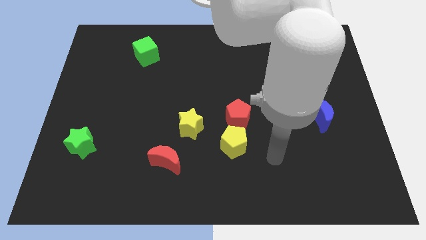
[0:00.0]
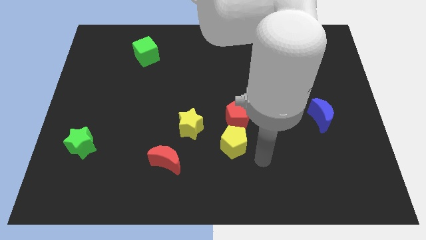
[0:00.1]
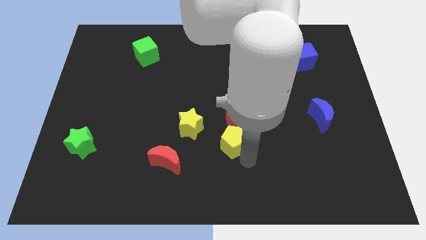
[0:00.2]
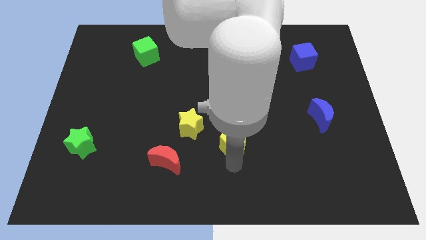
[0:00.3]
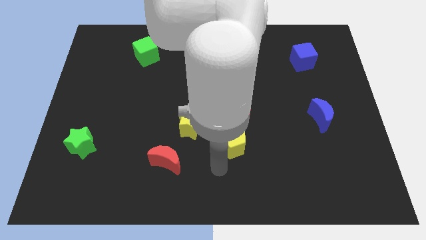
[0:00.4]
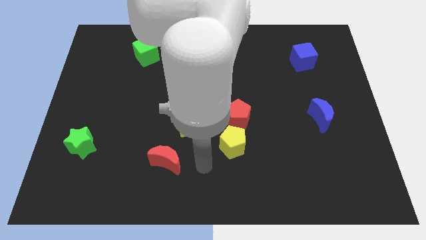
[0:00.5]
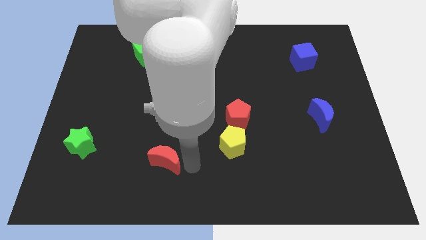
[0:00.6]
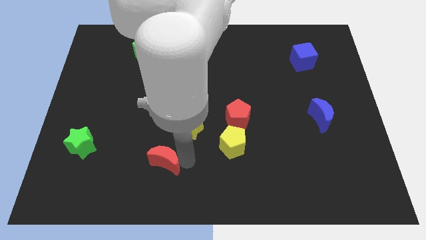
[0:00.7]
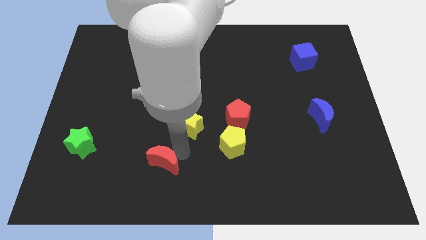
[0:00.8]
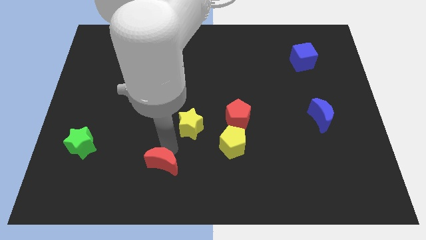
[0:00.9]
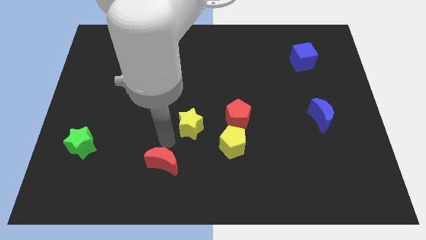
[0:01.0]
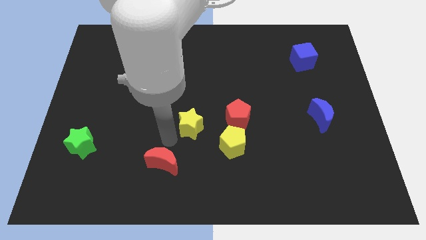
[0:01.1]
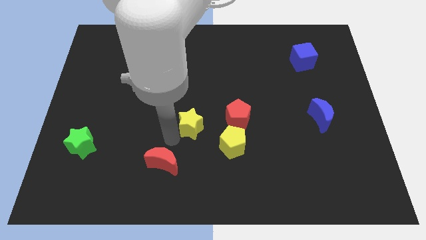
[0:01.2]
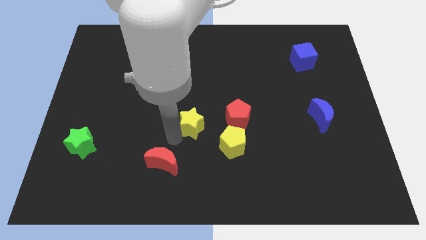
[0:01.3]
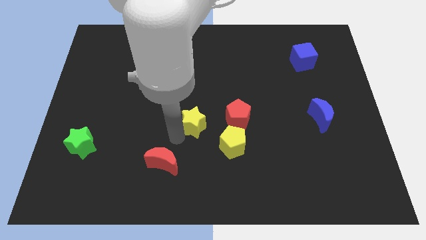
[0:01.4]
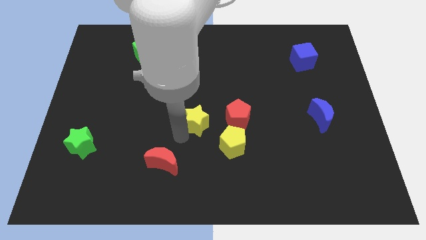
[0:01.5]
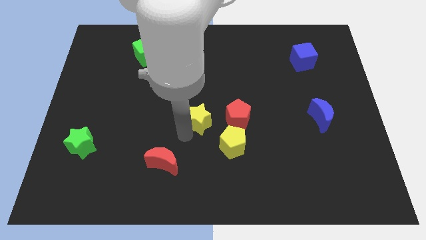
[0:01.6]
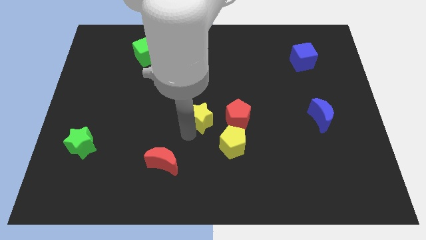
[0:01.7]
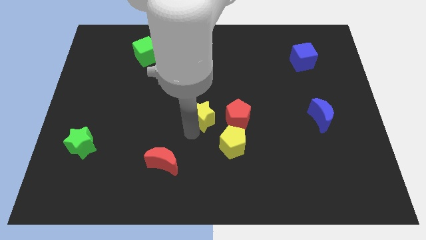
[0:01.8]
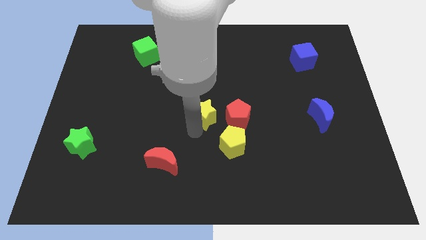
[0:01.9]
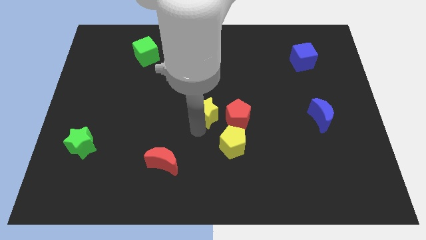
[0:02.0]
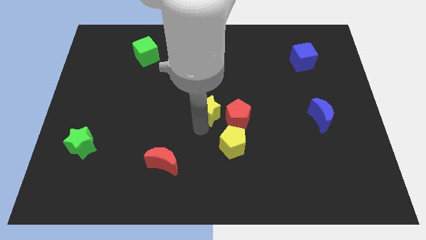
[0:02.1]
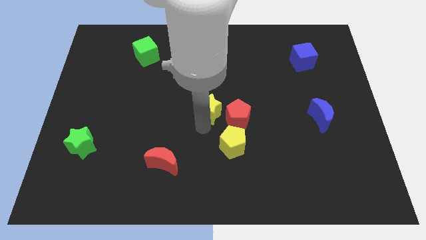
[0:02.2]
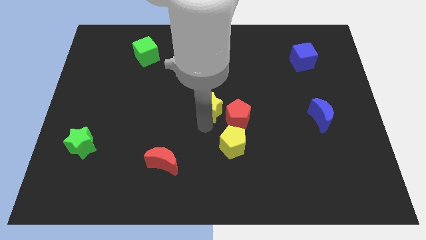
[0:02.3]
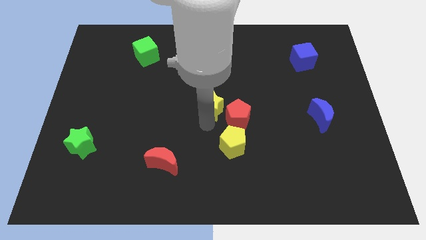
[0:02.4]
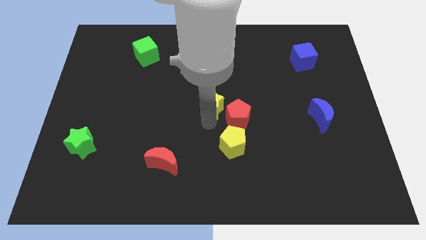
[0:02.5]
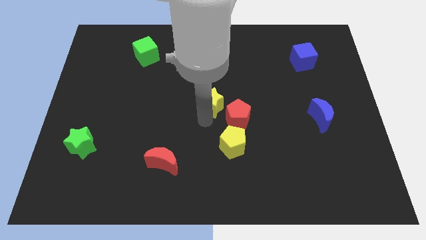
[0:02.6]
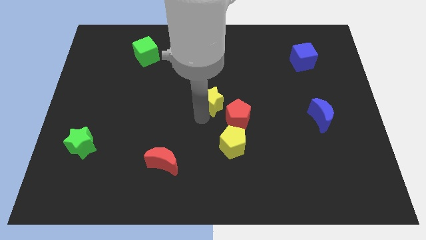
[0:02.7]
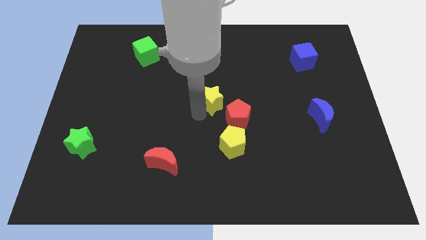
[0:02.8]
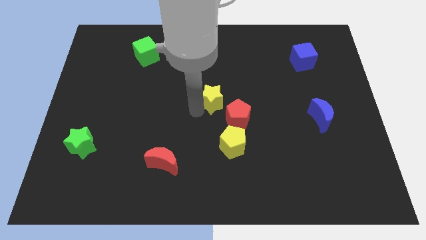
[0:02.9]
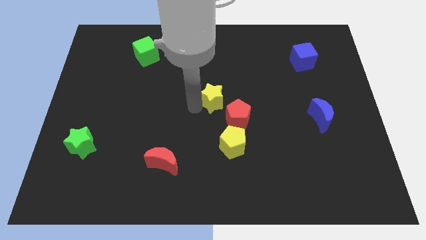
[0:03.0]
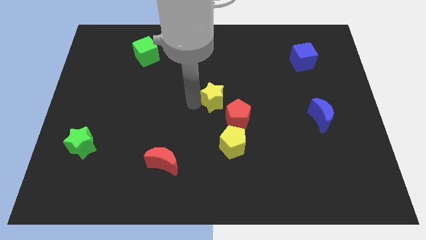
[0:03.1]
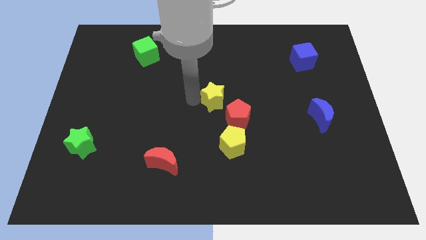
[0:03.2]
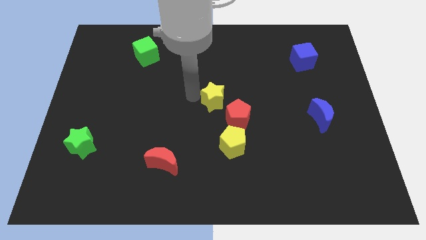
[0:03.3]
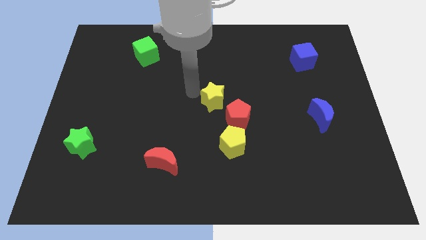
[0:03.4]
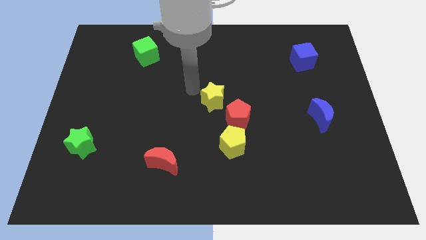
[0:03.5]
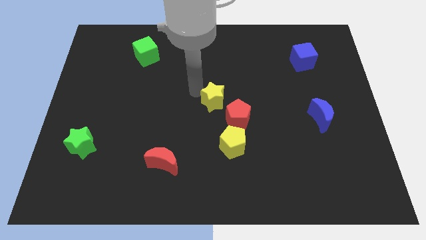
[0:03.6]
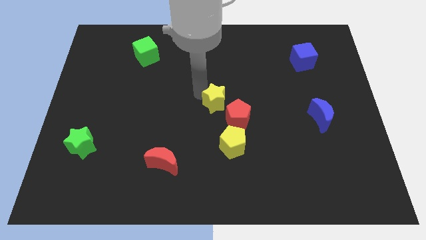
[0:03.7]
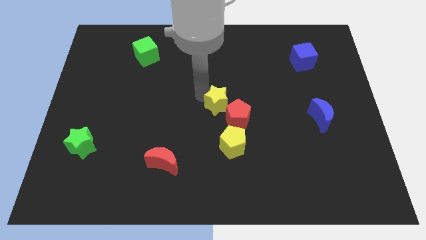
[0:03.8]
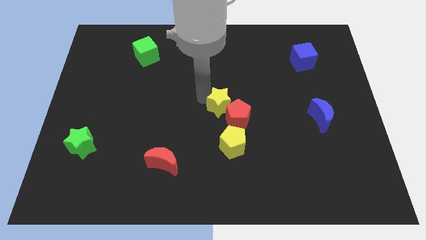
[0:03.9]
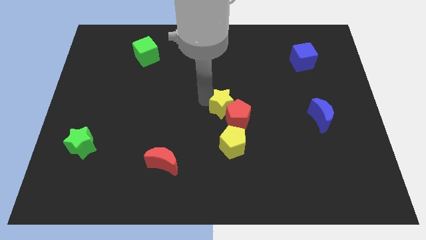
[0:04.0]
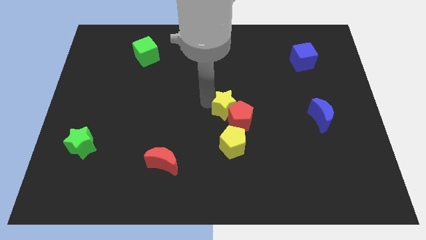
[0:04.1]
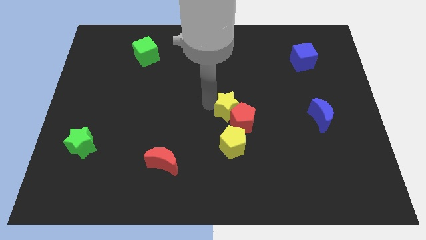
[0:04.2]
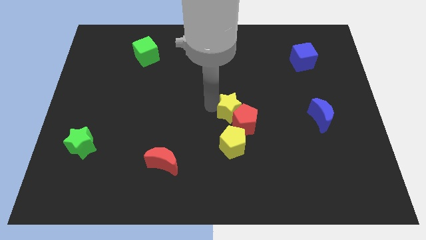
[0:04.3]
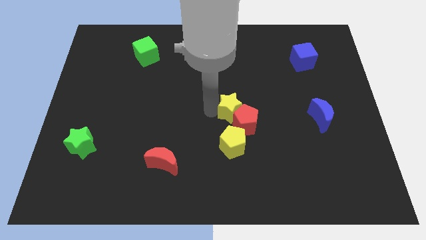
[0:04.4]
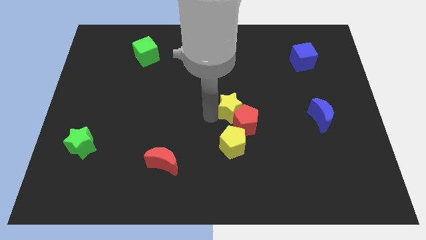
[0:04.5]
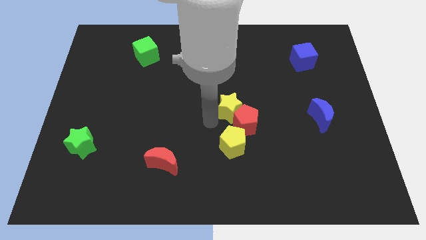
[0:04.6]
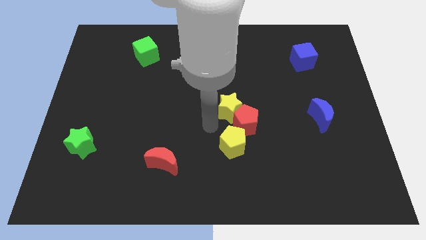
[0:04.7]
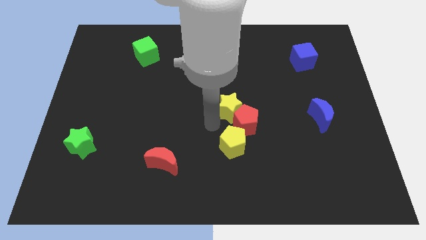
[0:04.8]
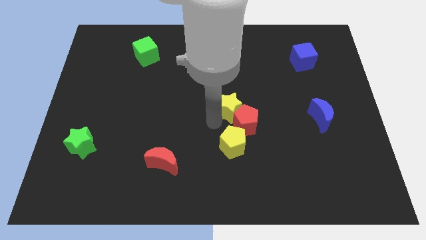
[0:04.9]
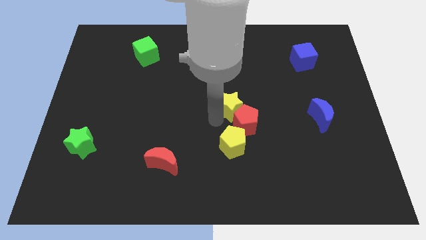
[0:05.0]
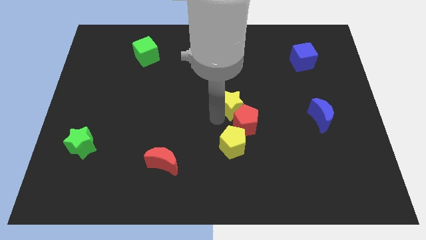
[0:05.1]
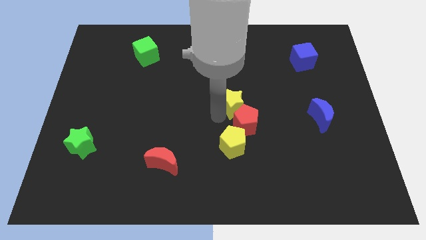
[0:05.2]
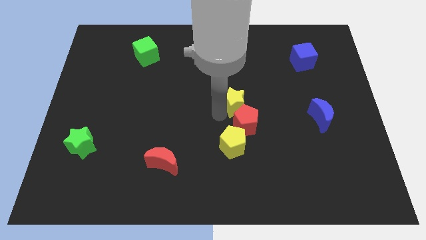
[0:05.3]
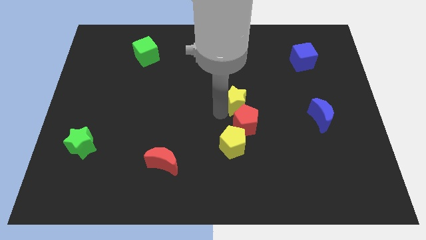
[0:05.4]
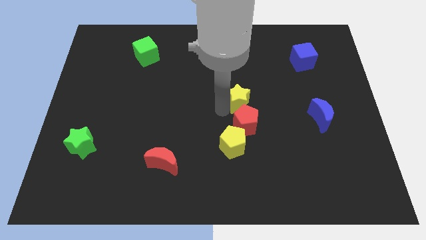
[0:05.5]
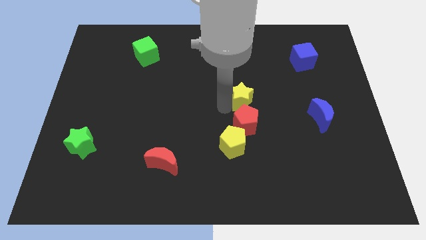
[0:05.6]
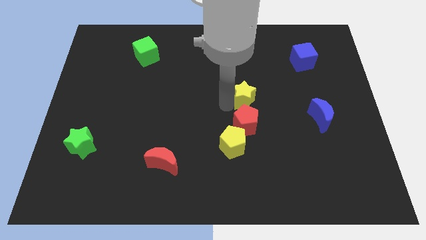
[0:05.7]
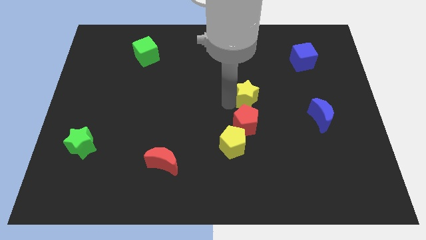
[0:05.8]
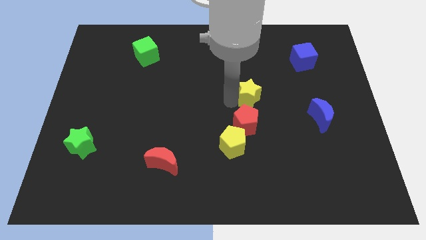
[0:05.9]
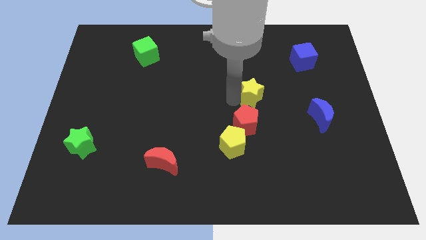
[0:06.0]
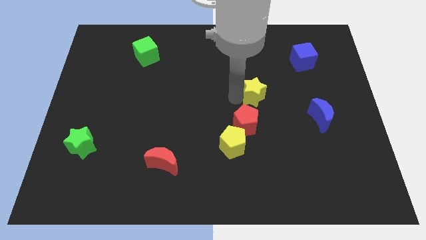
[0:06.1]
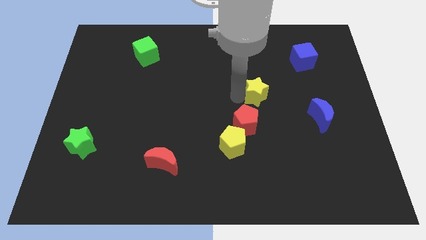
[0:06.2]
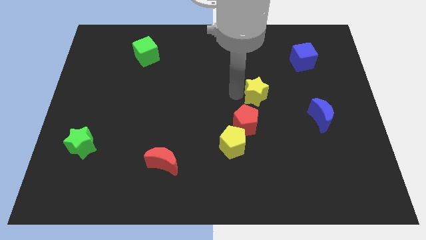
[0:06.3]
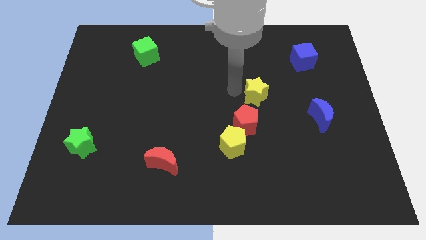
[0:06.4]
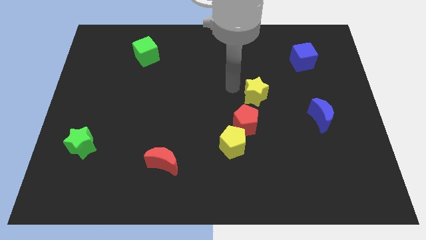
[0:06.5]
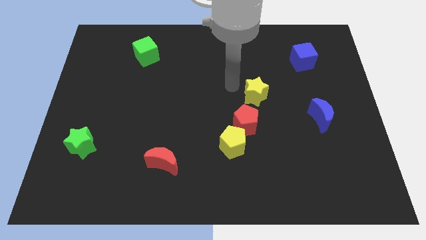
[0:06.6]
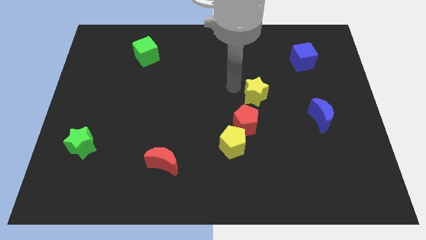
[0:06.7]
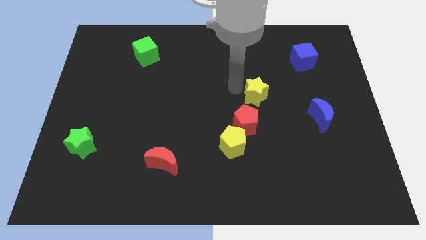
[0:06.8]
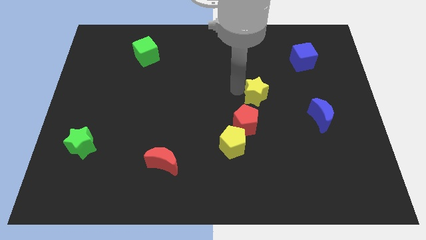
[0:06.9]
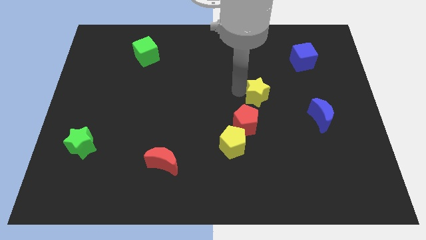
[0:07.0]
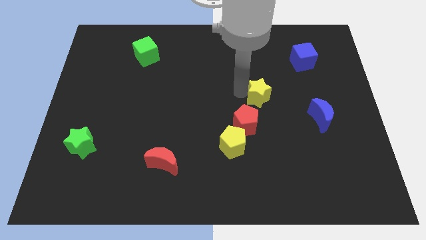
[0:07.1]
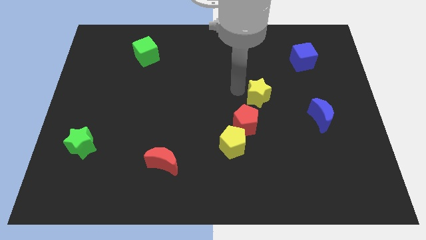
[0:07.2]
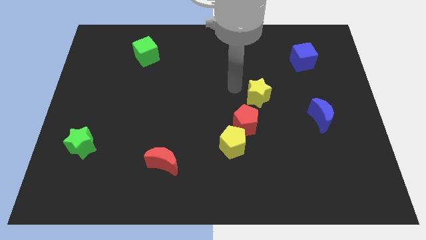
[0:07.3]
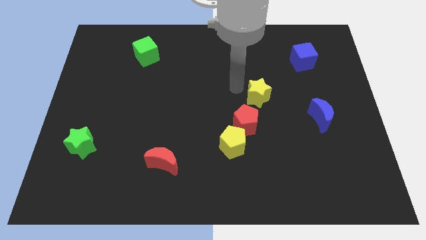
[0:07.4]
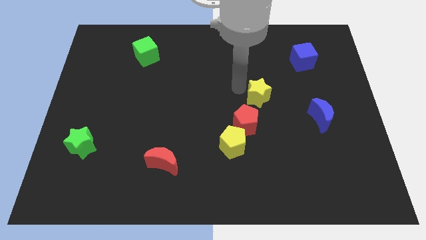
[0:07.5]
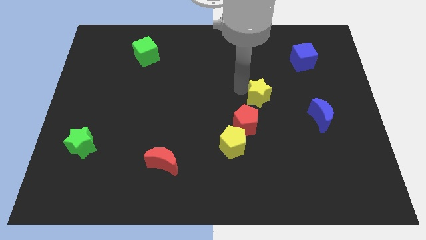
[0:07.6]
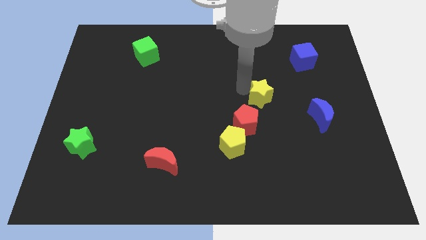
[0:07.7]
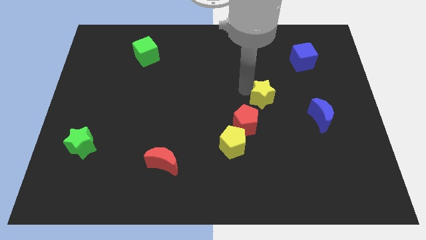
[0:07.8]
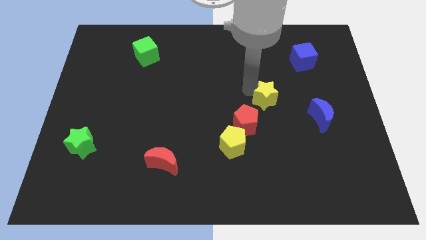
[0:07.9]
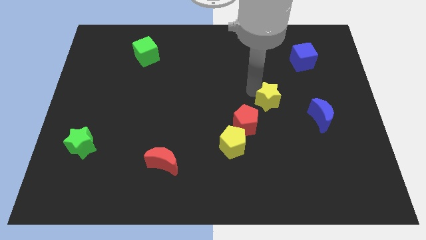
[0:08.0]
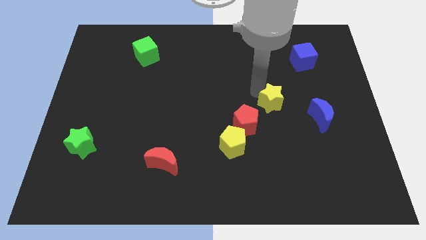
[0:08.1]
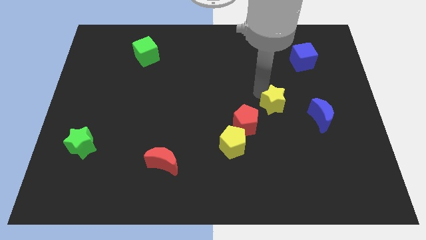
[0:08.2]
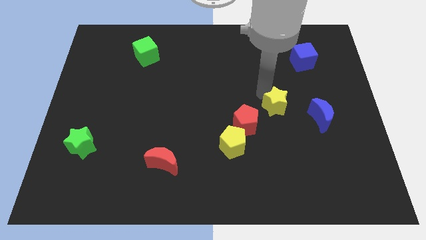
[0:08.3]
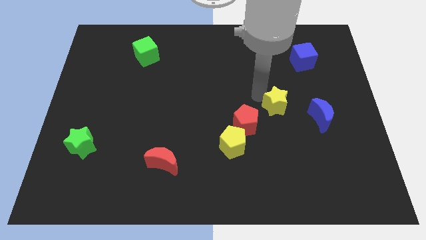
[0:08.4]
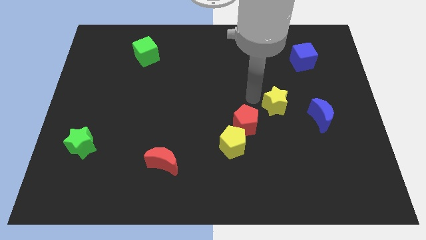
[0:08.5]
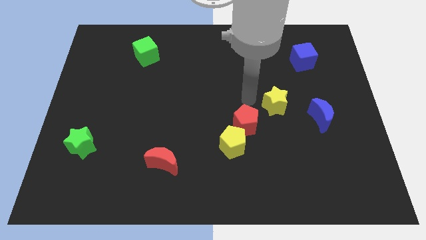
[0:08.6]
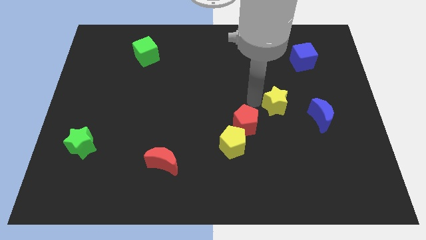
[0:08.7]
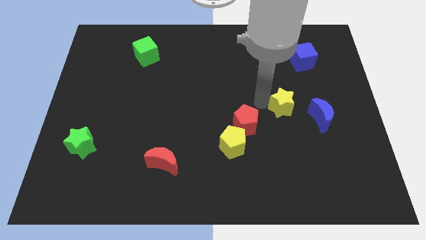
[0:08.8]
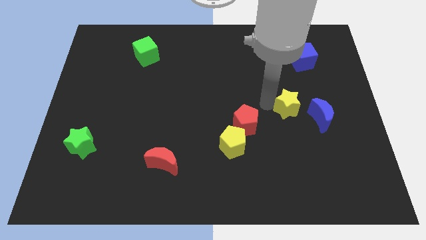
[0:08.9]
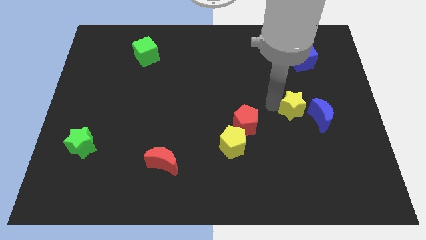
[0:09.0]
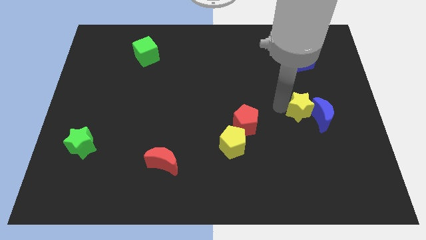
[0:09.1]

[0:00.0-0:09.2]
push the yellow star close to the blue moon
